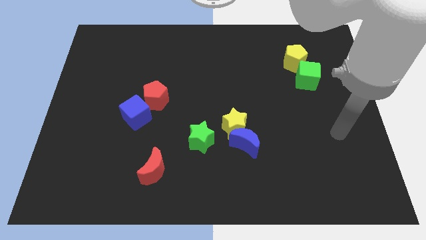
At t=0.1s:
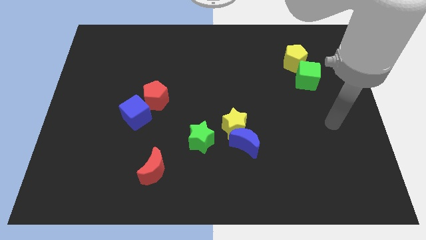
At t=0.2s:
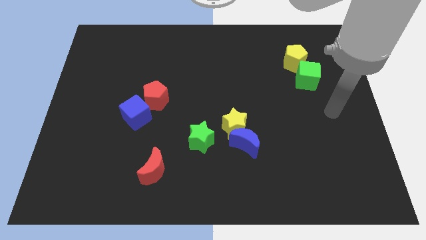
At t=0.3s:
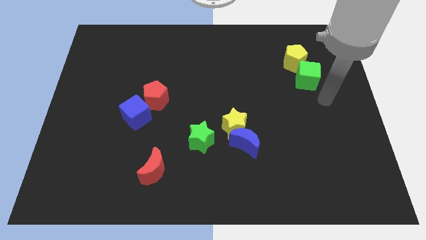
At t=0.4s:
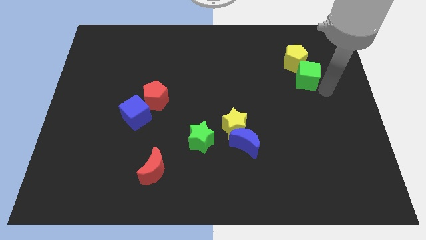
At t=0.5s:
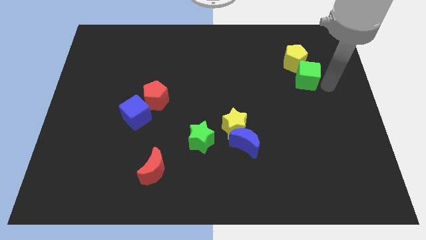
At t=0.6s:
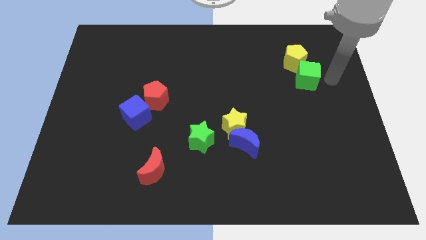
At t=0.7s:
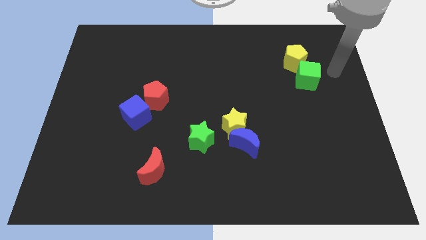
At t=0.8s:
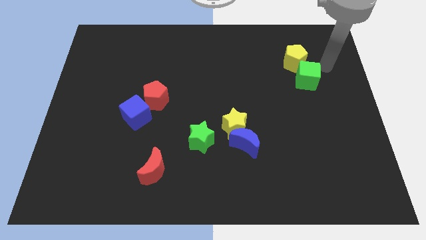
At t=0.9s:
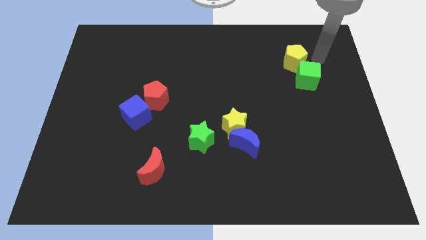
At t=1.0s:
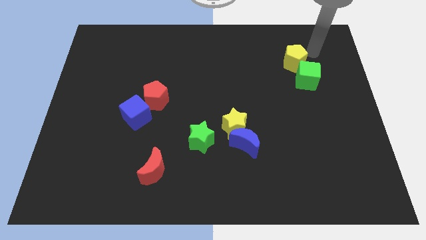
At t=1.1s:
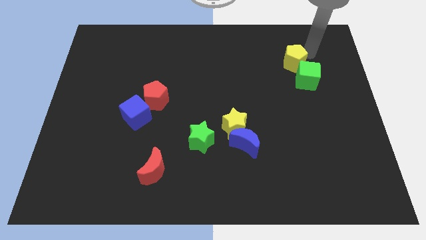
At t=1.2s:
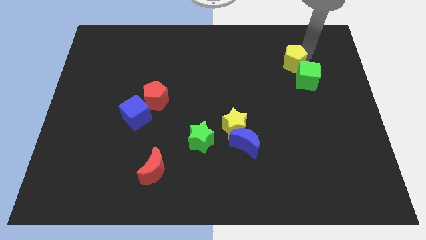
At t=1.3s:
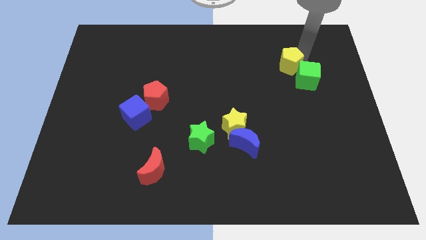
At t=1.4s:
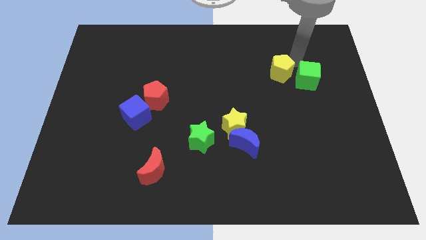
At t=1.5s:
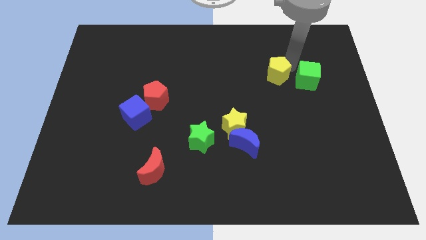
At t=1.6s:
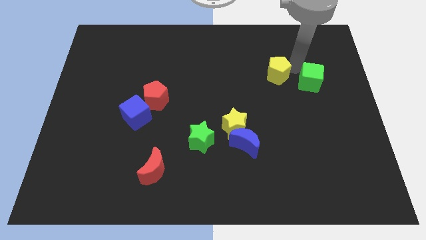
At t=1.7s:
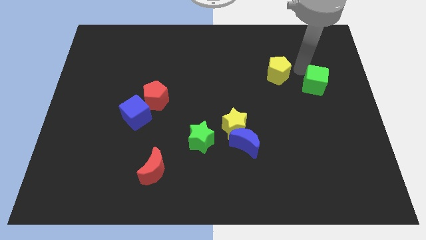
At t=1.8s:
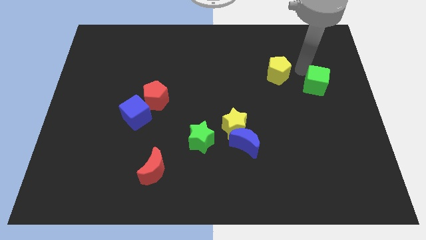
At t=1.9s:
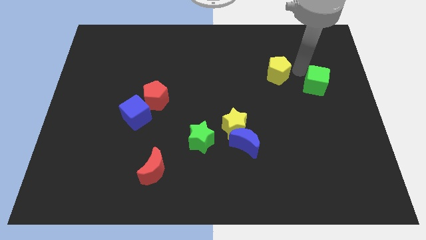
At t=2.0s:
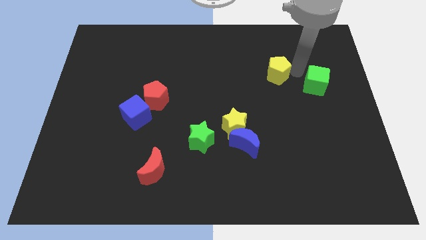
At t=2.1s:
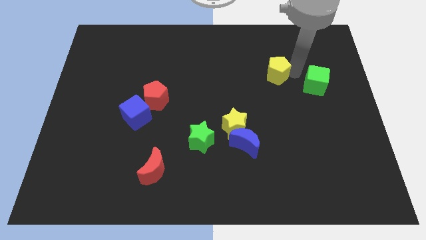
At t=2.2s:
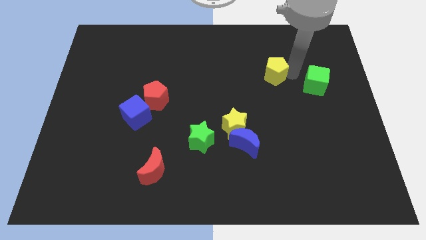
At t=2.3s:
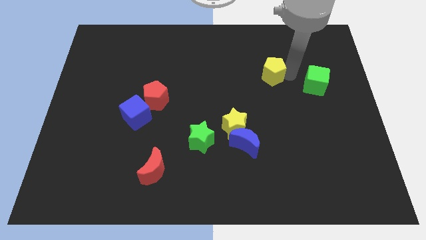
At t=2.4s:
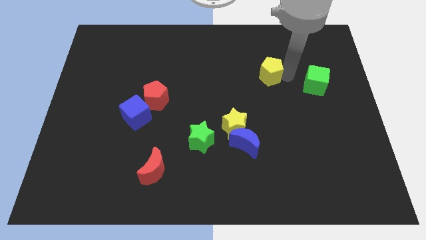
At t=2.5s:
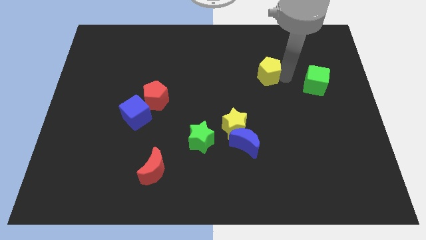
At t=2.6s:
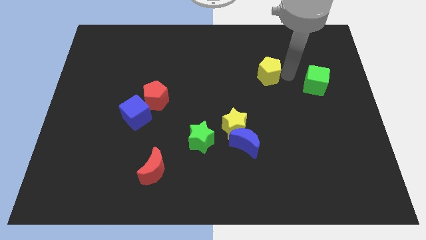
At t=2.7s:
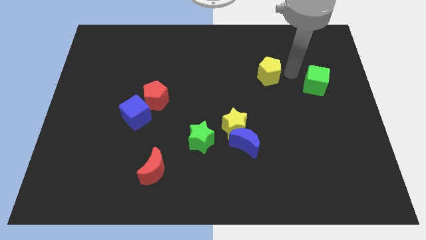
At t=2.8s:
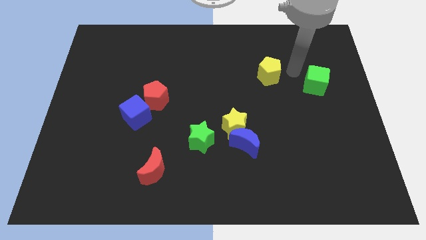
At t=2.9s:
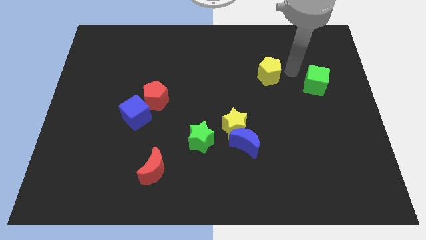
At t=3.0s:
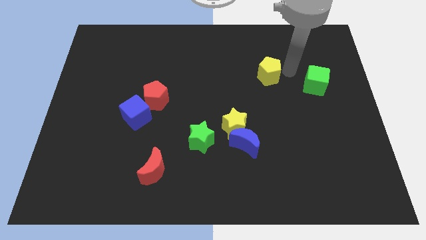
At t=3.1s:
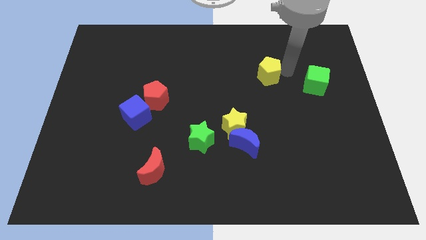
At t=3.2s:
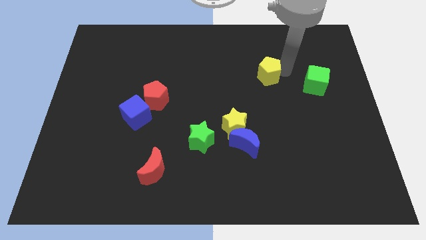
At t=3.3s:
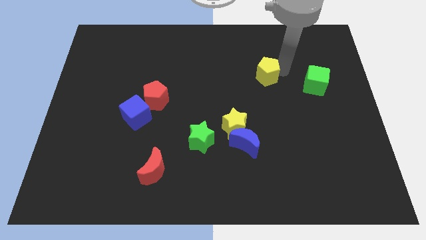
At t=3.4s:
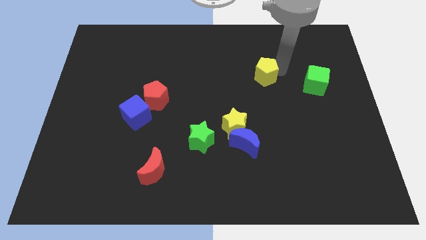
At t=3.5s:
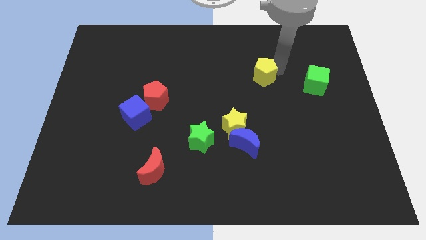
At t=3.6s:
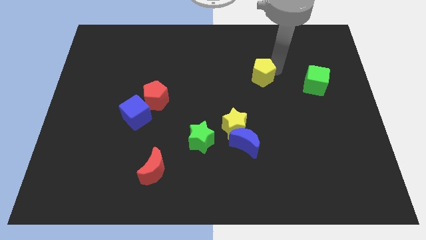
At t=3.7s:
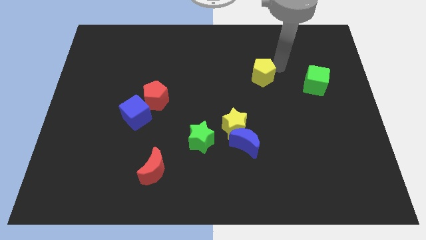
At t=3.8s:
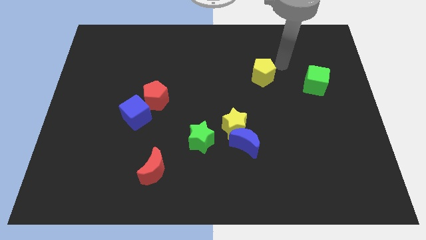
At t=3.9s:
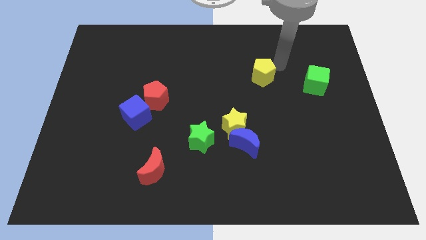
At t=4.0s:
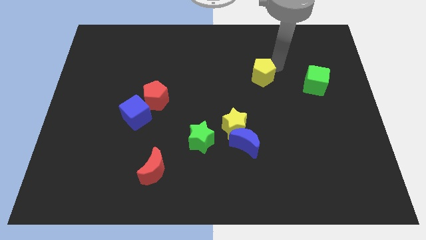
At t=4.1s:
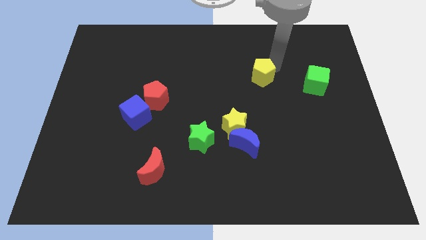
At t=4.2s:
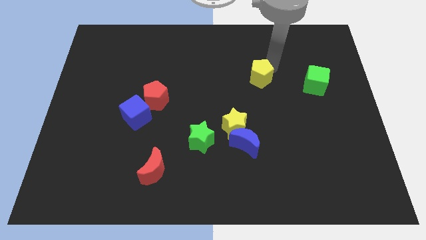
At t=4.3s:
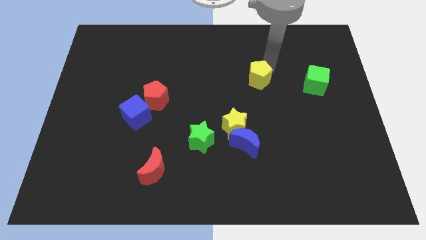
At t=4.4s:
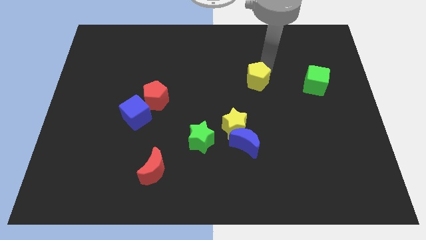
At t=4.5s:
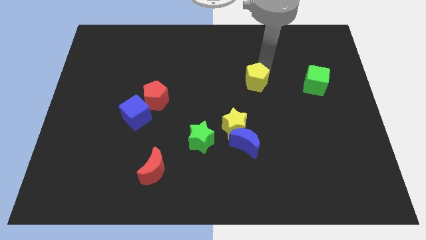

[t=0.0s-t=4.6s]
push the yellow pentagon to the center

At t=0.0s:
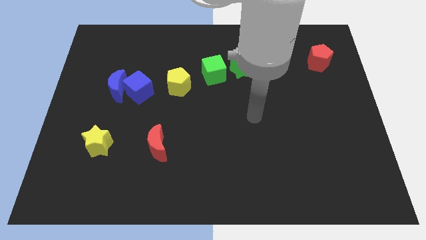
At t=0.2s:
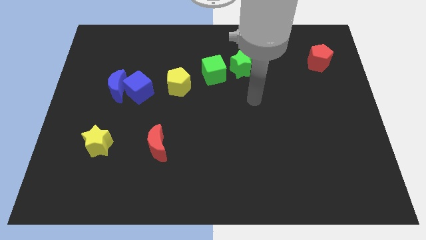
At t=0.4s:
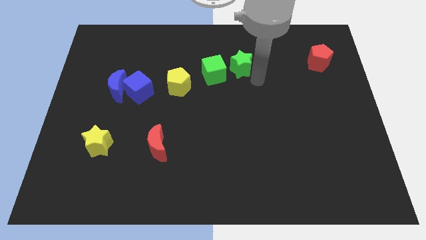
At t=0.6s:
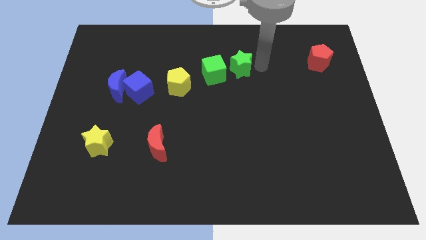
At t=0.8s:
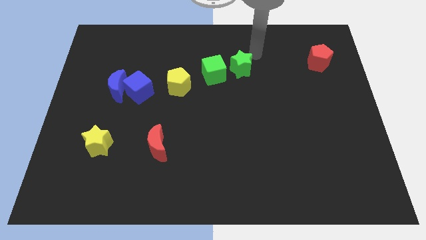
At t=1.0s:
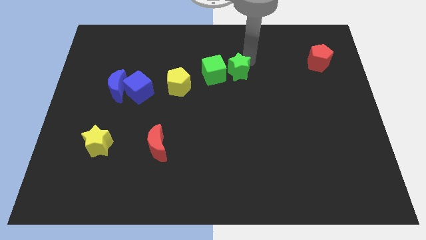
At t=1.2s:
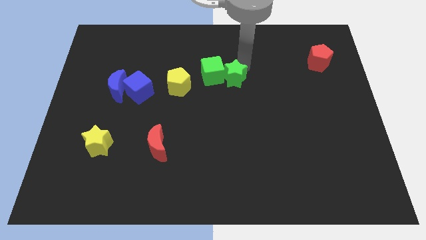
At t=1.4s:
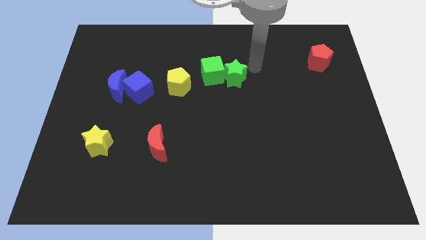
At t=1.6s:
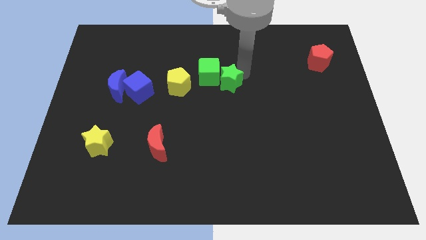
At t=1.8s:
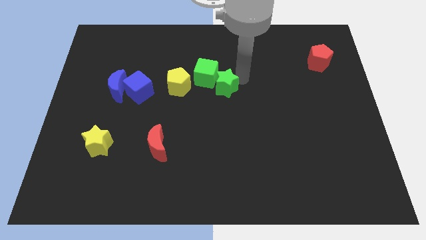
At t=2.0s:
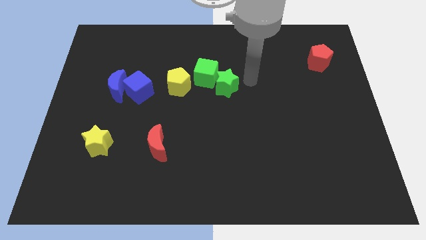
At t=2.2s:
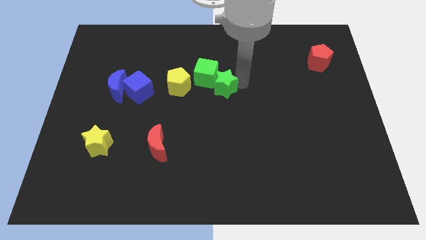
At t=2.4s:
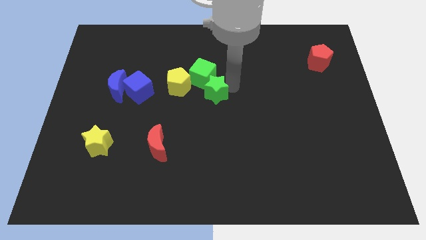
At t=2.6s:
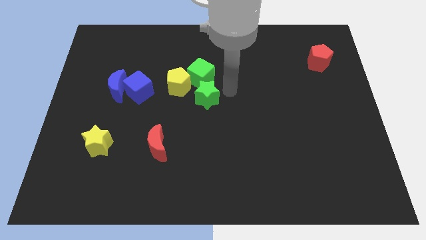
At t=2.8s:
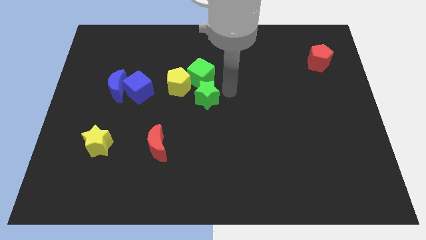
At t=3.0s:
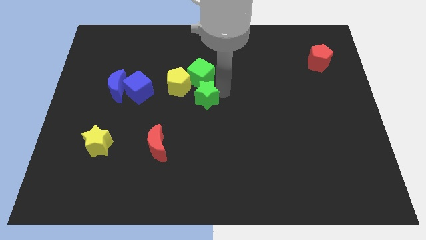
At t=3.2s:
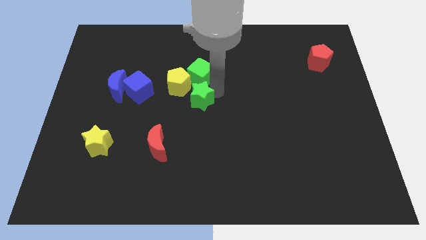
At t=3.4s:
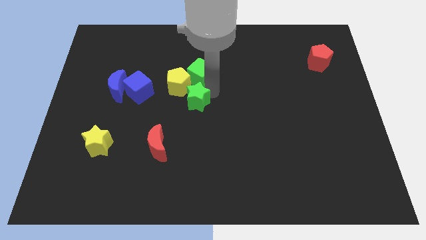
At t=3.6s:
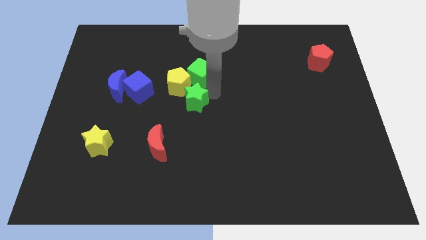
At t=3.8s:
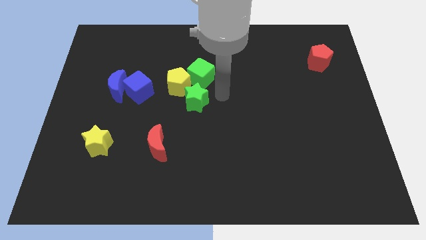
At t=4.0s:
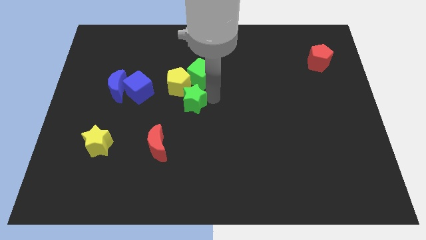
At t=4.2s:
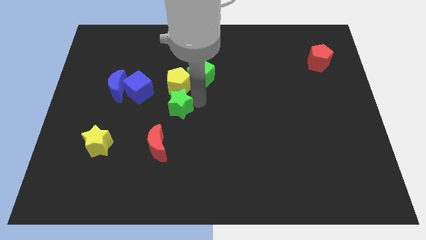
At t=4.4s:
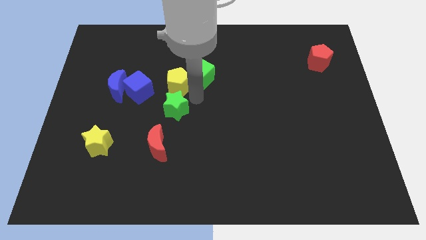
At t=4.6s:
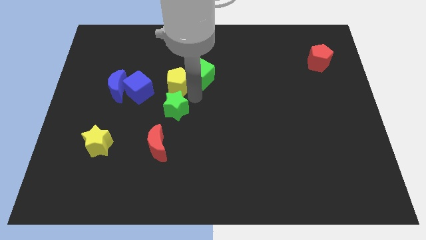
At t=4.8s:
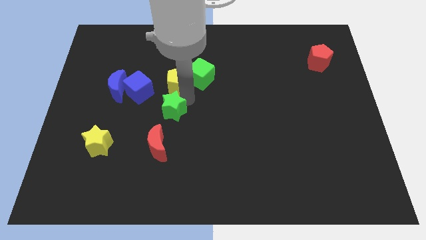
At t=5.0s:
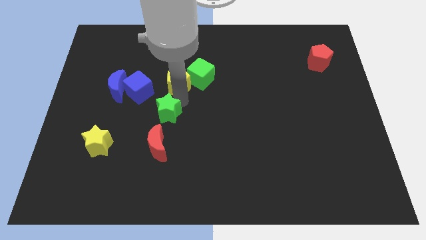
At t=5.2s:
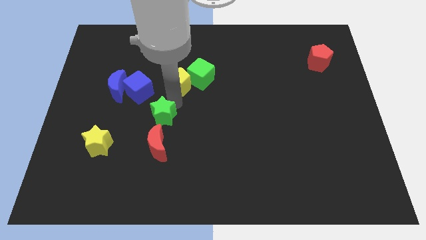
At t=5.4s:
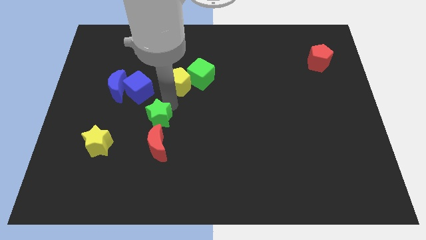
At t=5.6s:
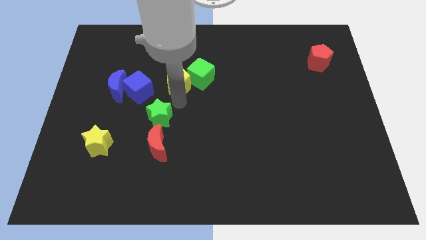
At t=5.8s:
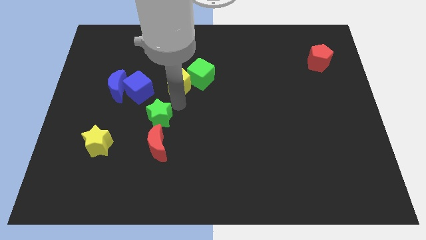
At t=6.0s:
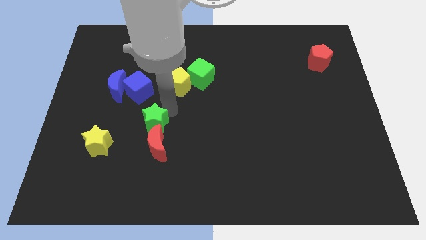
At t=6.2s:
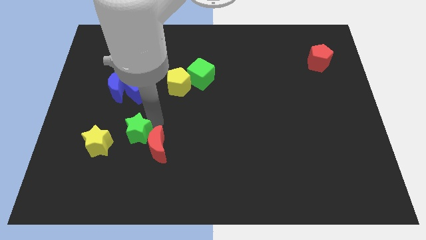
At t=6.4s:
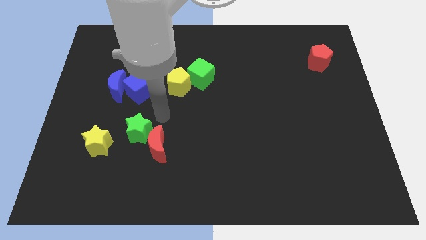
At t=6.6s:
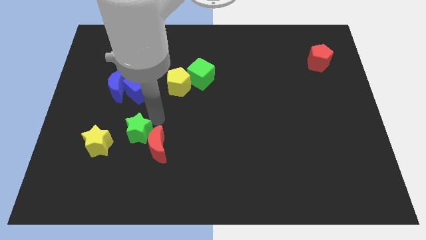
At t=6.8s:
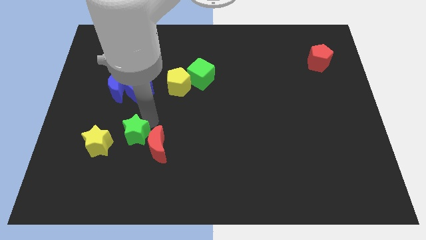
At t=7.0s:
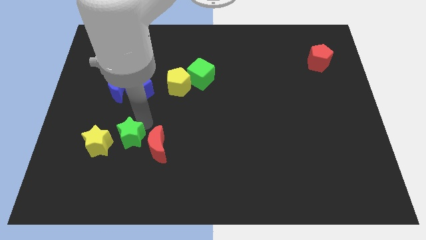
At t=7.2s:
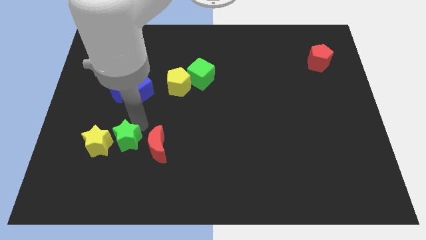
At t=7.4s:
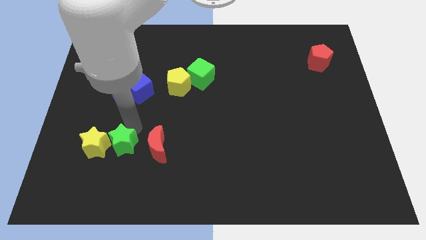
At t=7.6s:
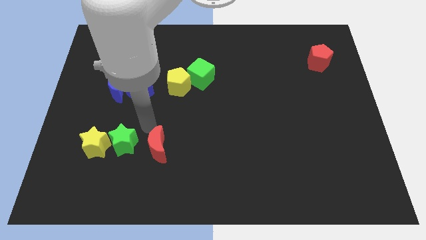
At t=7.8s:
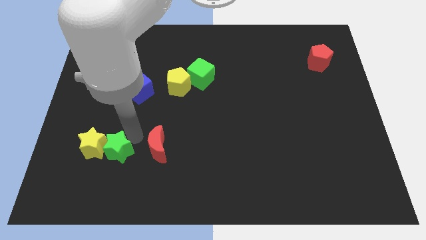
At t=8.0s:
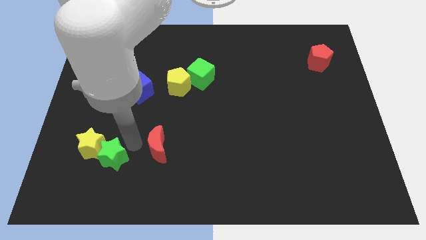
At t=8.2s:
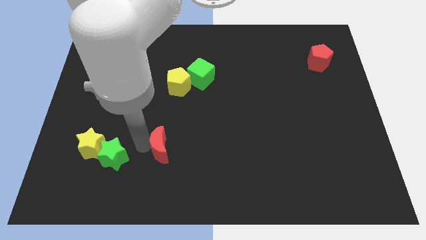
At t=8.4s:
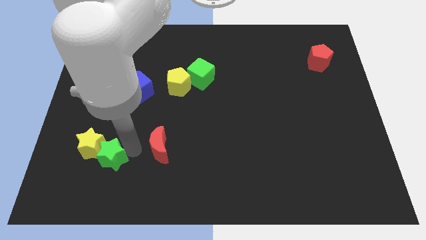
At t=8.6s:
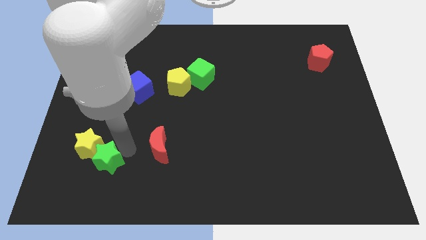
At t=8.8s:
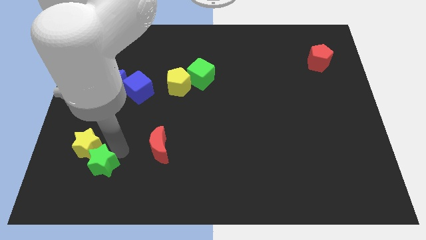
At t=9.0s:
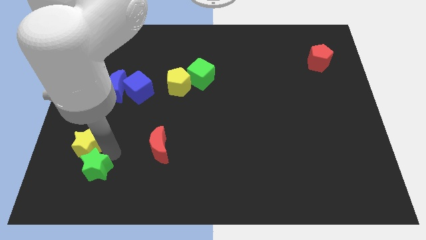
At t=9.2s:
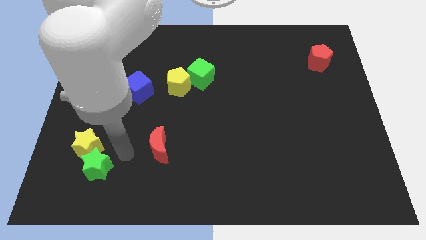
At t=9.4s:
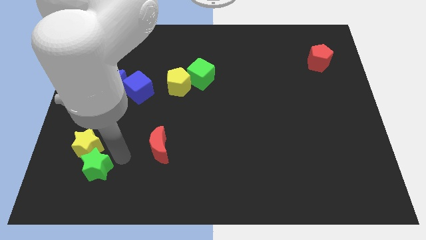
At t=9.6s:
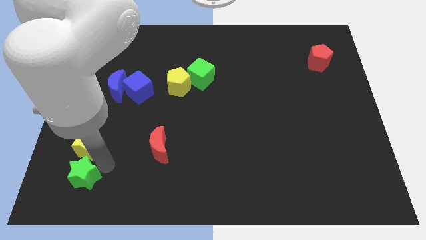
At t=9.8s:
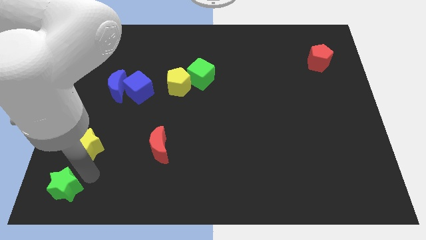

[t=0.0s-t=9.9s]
slide the green star to the bottom left
